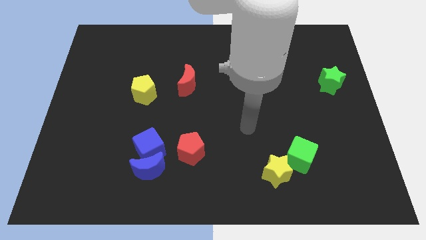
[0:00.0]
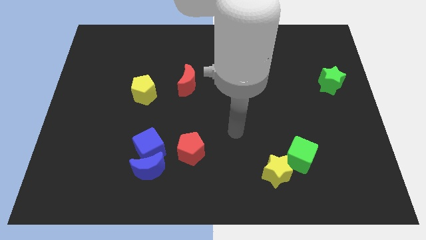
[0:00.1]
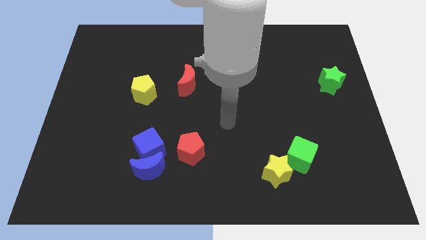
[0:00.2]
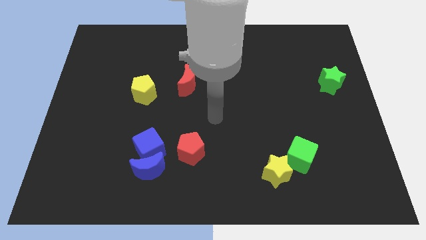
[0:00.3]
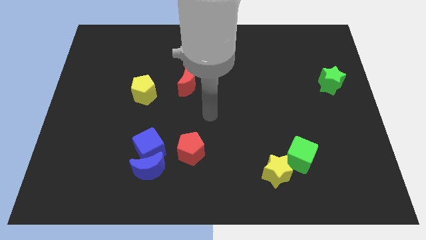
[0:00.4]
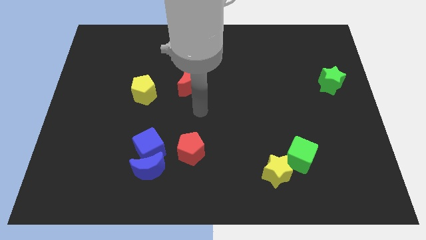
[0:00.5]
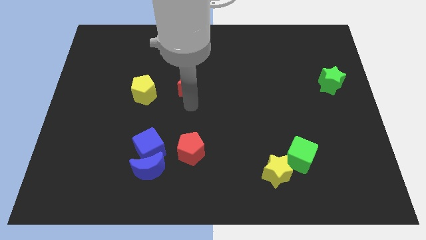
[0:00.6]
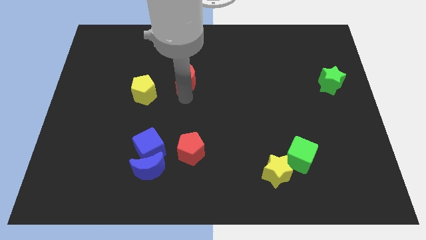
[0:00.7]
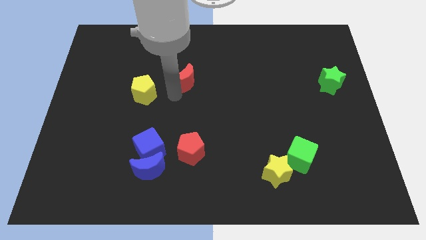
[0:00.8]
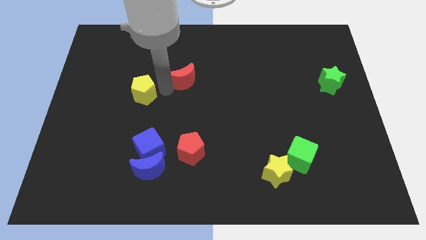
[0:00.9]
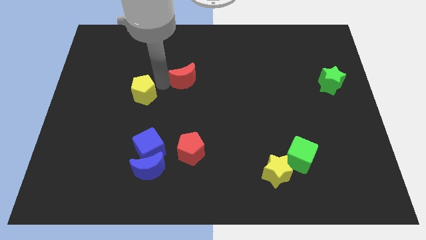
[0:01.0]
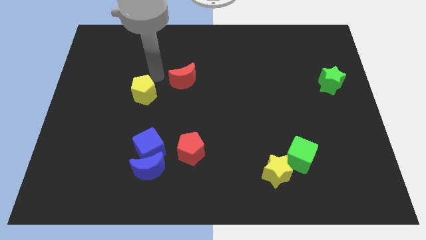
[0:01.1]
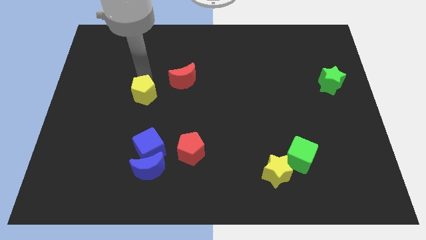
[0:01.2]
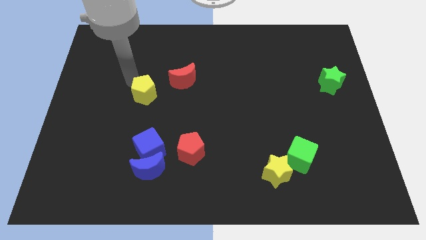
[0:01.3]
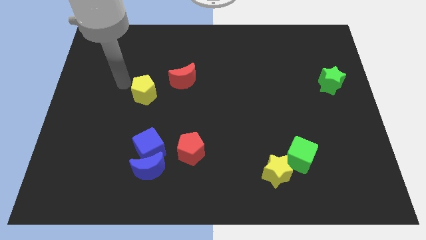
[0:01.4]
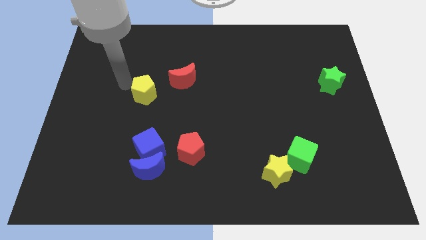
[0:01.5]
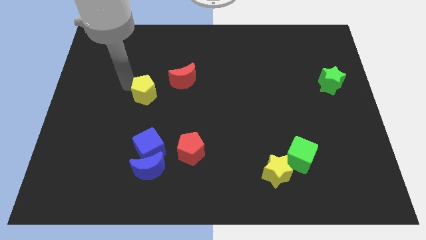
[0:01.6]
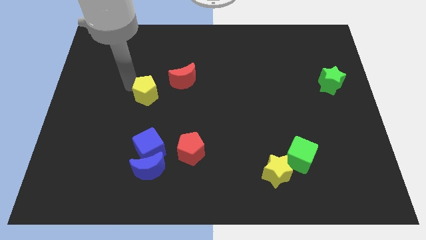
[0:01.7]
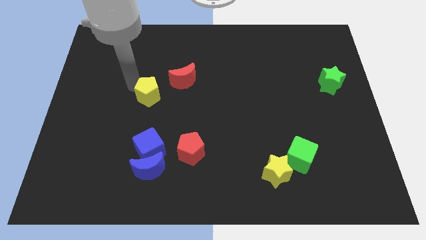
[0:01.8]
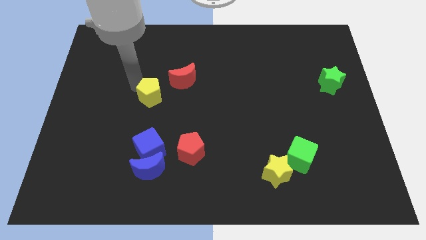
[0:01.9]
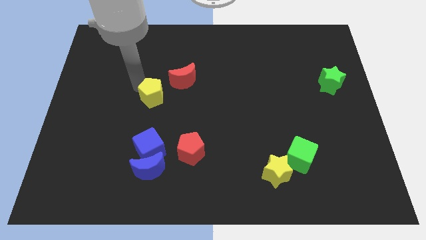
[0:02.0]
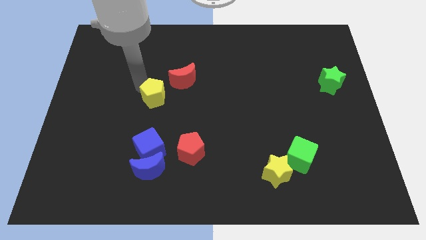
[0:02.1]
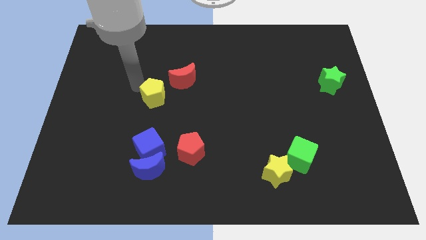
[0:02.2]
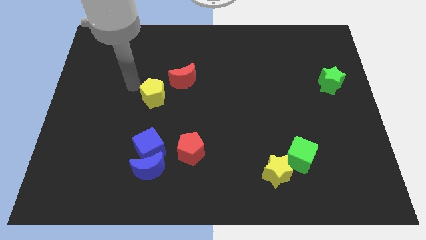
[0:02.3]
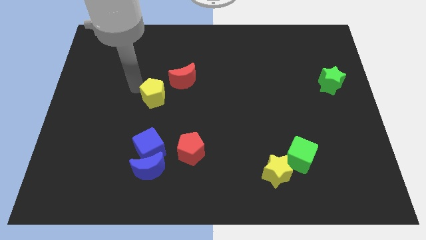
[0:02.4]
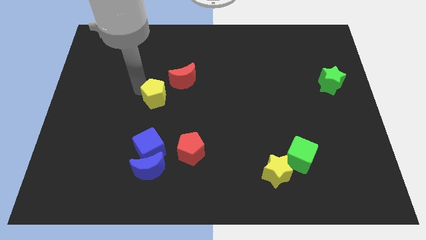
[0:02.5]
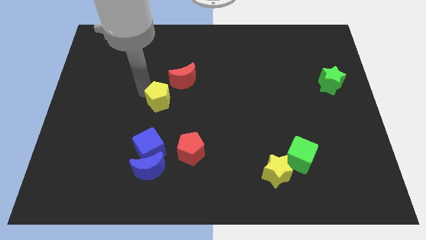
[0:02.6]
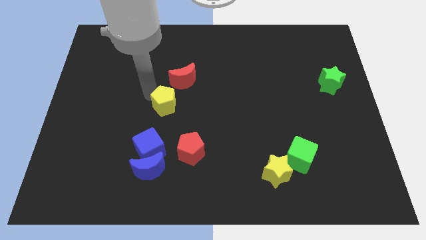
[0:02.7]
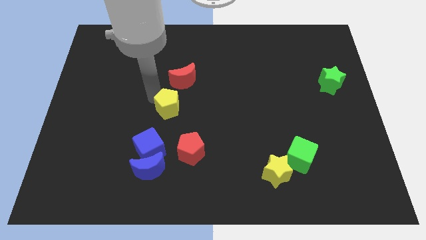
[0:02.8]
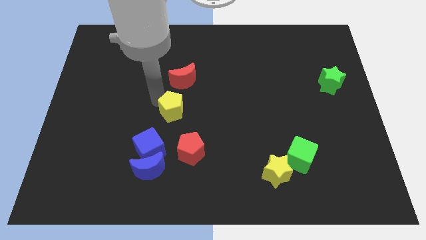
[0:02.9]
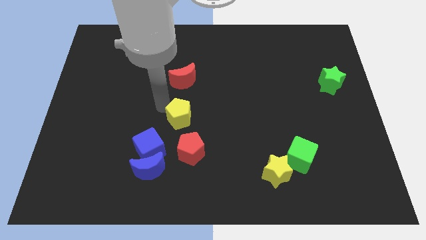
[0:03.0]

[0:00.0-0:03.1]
slightly push the yellow pentagon to the right

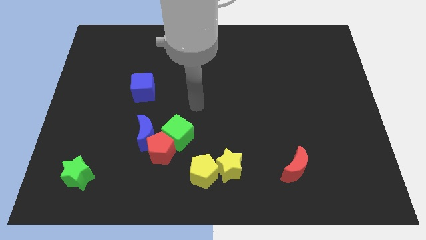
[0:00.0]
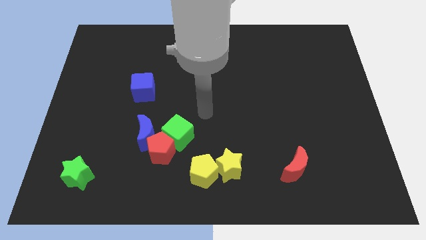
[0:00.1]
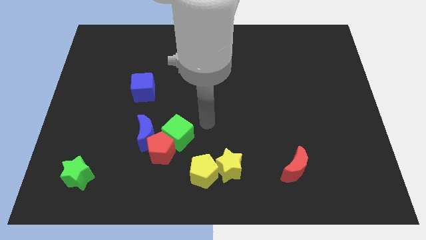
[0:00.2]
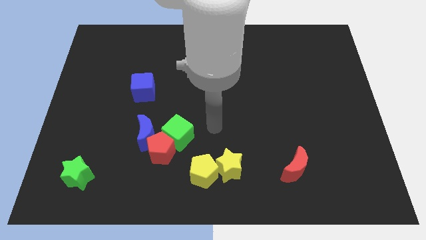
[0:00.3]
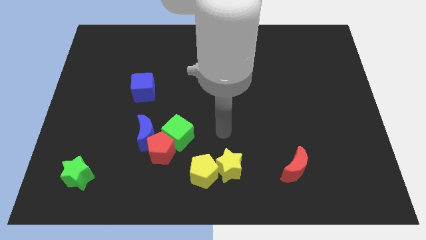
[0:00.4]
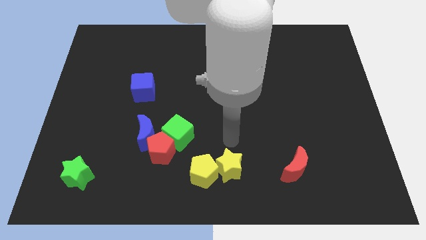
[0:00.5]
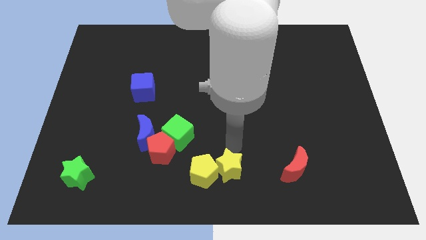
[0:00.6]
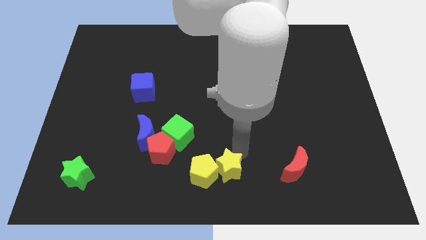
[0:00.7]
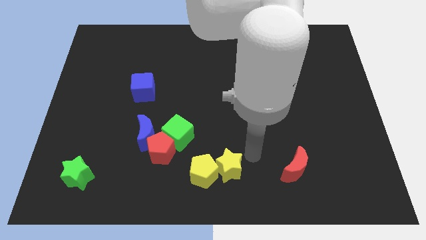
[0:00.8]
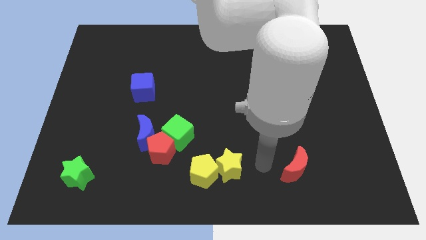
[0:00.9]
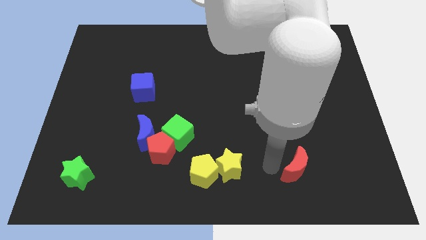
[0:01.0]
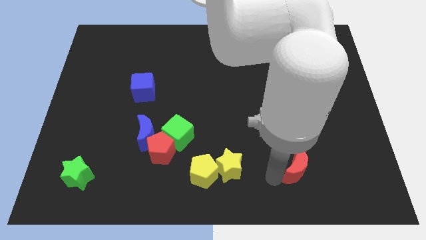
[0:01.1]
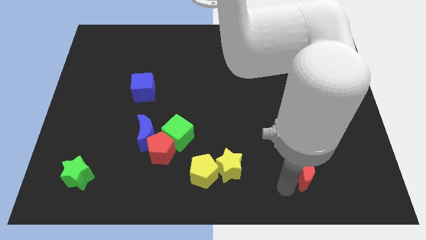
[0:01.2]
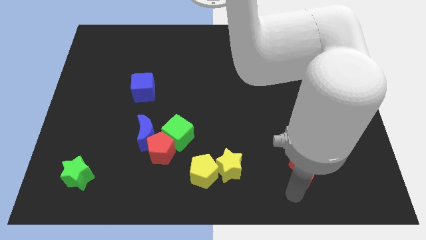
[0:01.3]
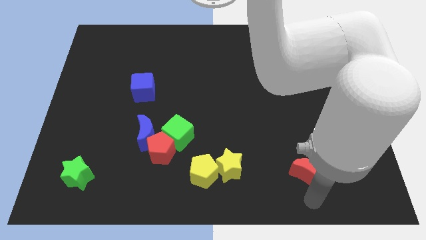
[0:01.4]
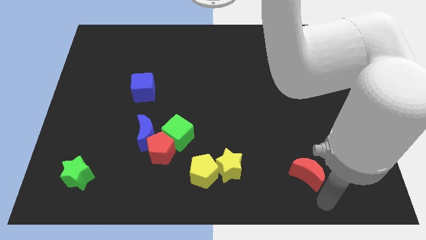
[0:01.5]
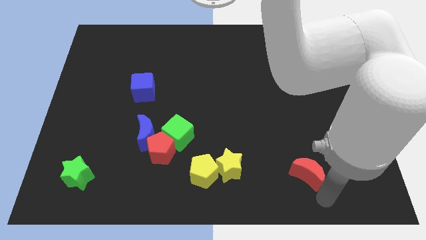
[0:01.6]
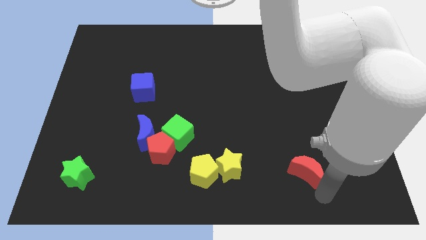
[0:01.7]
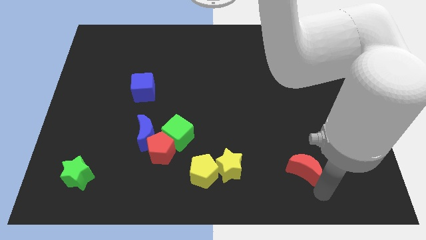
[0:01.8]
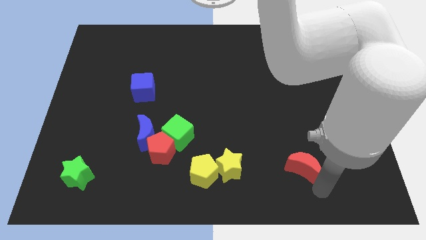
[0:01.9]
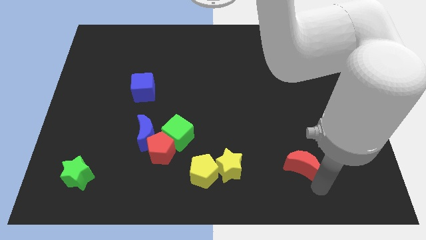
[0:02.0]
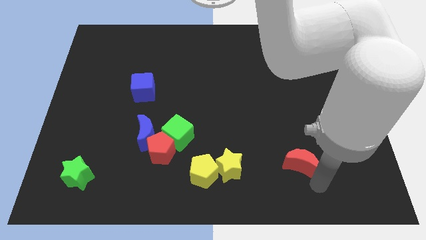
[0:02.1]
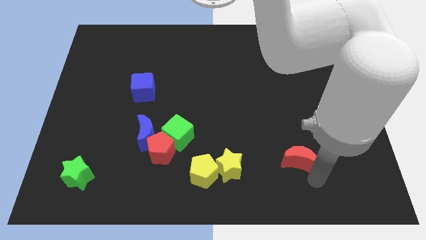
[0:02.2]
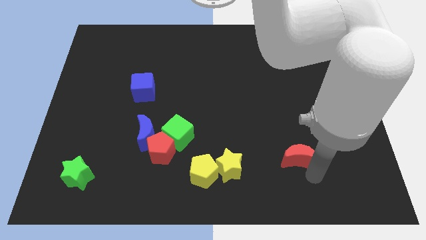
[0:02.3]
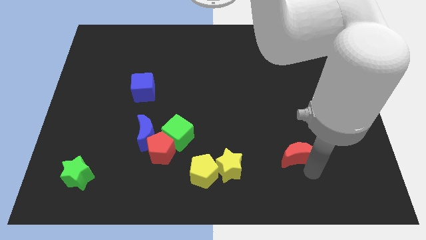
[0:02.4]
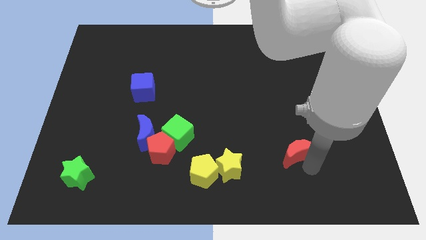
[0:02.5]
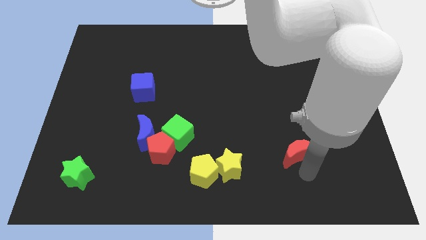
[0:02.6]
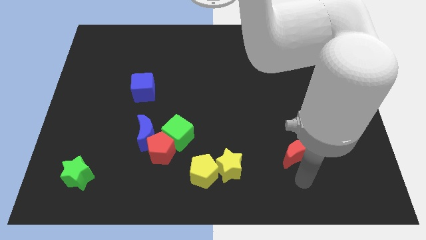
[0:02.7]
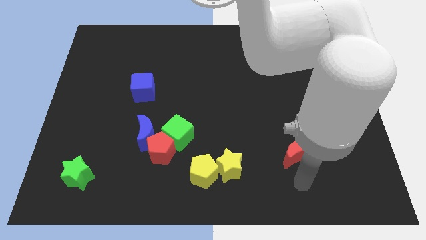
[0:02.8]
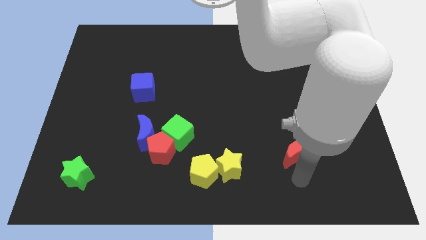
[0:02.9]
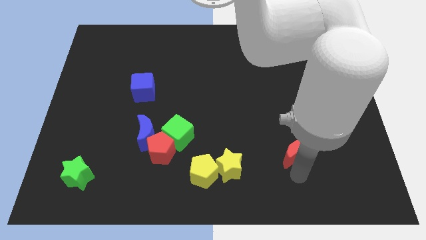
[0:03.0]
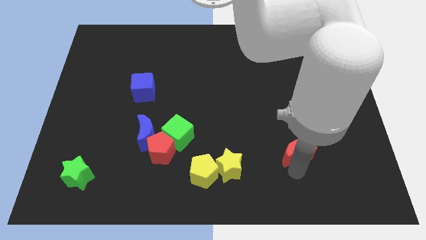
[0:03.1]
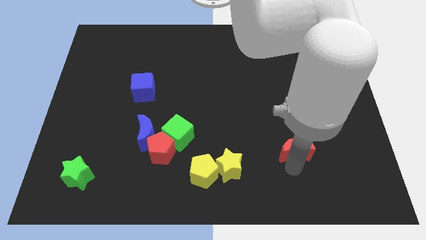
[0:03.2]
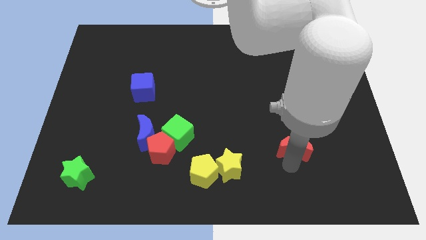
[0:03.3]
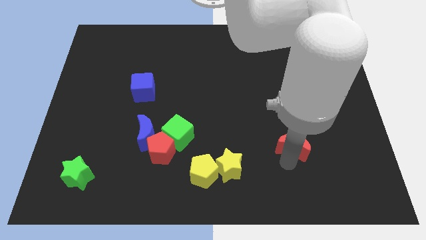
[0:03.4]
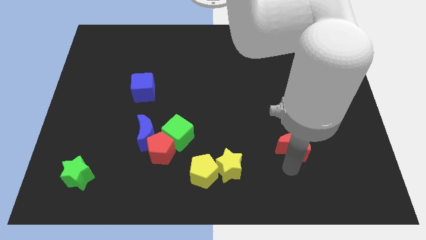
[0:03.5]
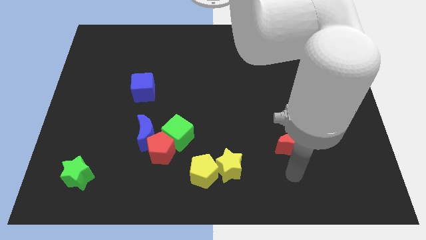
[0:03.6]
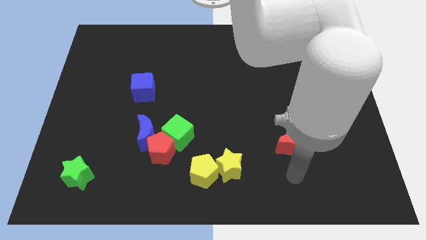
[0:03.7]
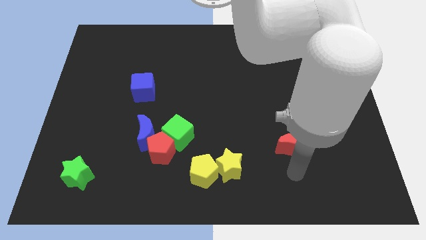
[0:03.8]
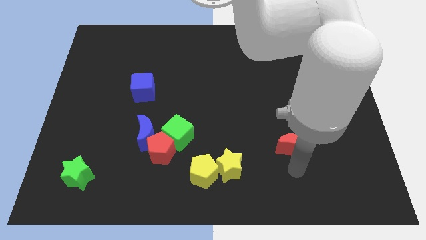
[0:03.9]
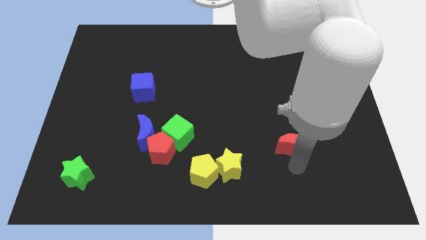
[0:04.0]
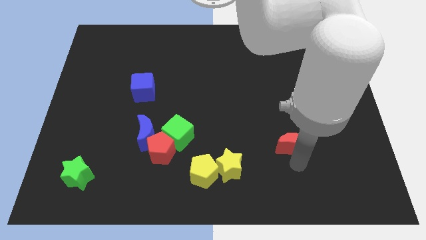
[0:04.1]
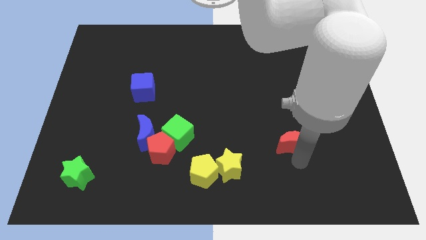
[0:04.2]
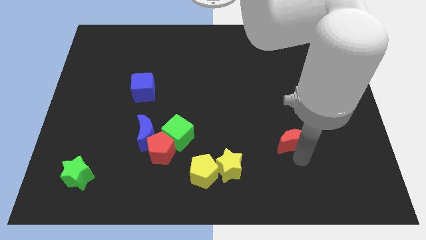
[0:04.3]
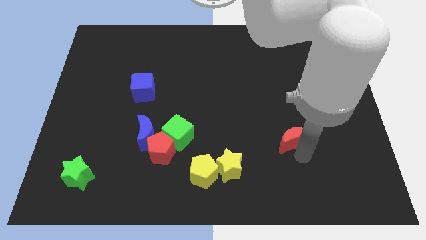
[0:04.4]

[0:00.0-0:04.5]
slightly move the red moon upwards

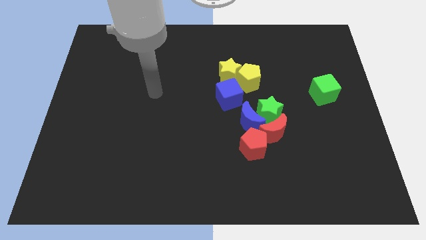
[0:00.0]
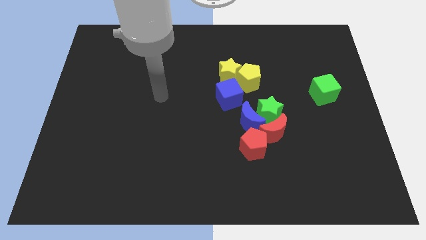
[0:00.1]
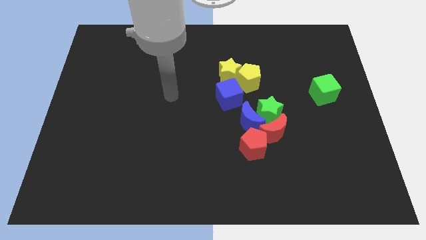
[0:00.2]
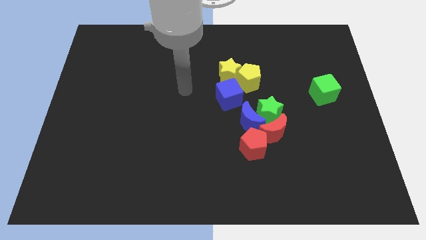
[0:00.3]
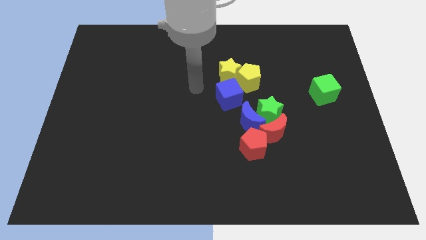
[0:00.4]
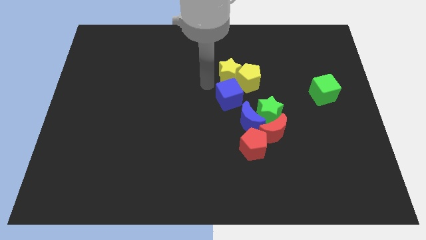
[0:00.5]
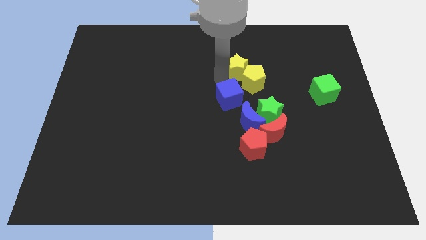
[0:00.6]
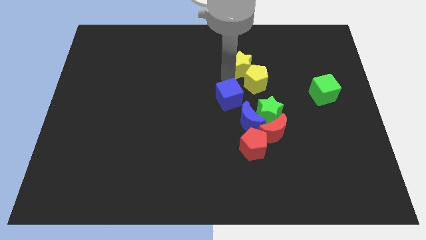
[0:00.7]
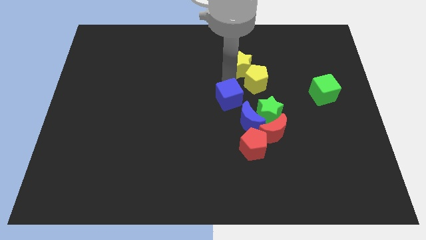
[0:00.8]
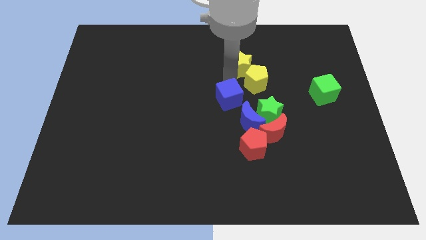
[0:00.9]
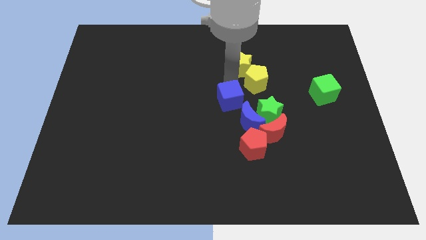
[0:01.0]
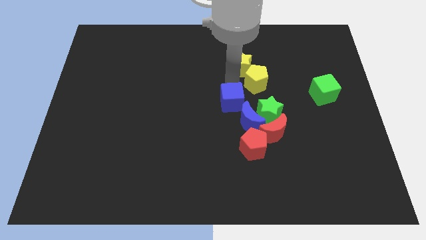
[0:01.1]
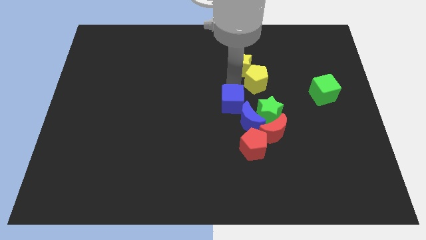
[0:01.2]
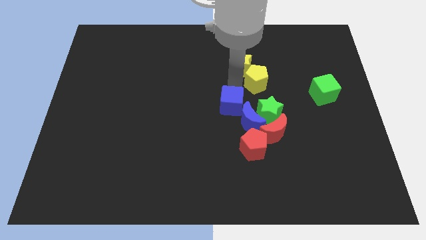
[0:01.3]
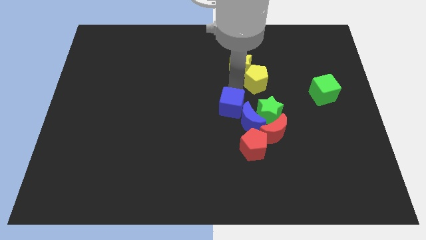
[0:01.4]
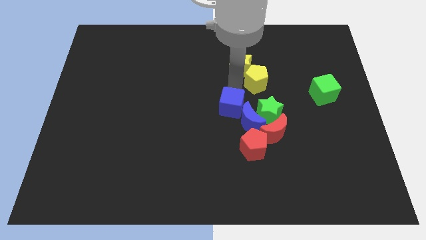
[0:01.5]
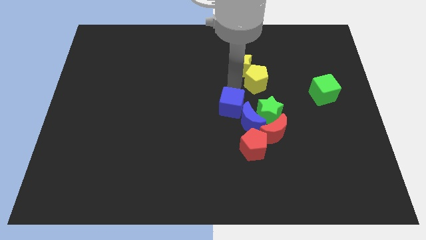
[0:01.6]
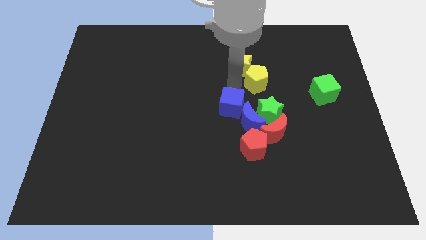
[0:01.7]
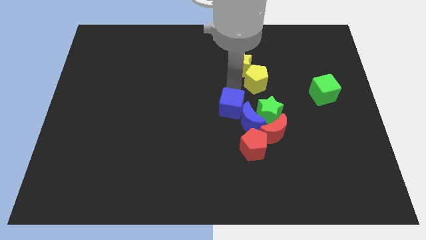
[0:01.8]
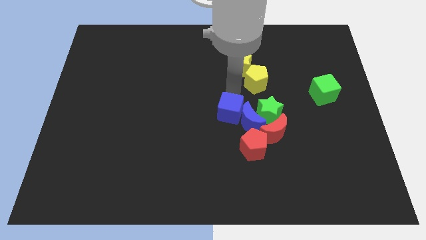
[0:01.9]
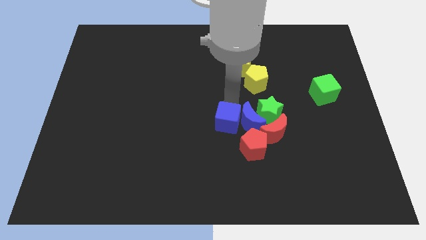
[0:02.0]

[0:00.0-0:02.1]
slide the blue cube downwards a little
